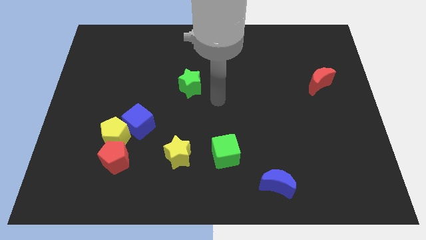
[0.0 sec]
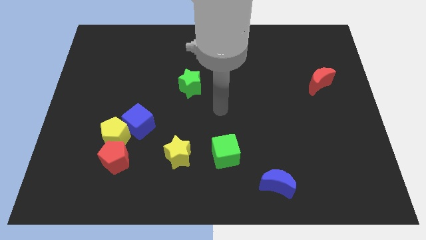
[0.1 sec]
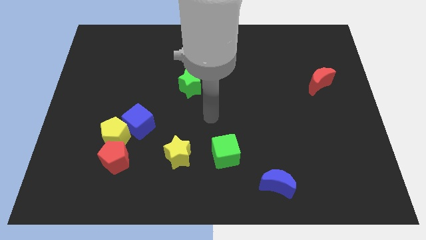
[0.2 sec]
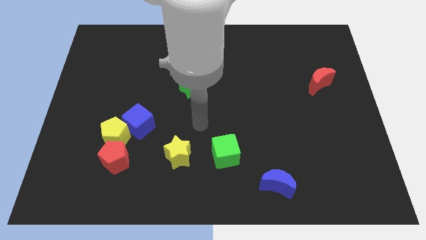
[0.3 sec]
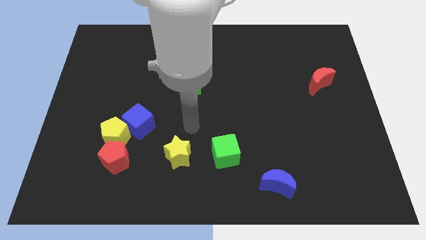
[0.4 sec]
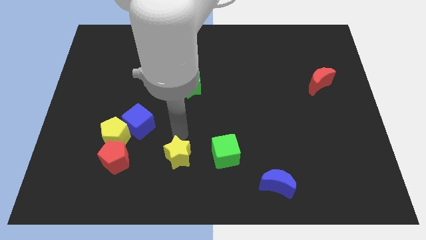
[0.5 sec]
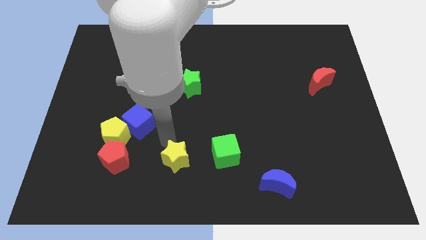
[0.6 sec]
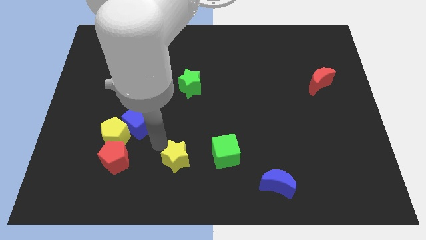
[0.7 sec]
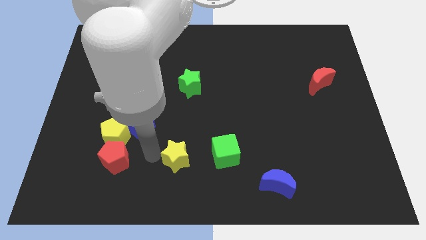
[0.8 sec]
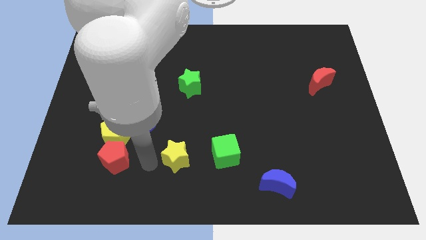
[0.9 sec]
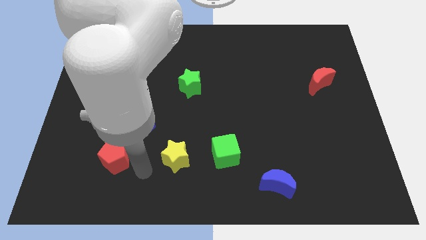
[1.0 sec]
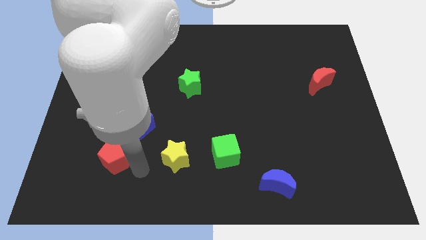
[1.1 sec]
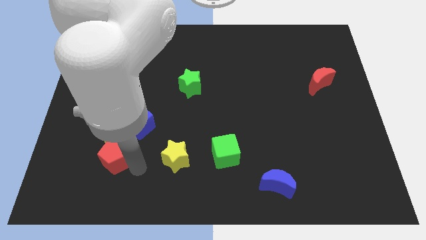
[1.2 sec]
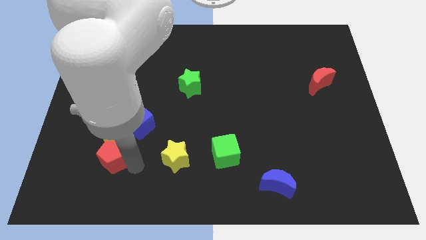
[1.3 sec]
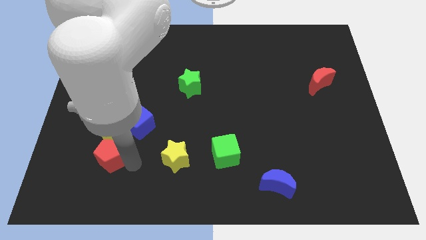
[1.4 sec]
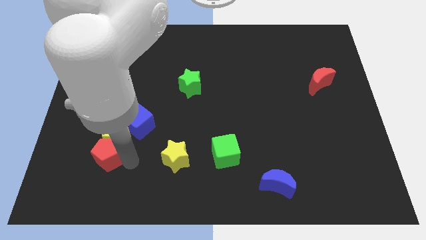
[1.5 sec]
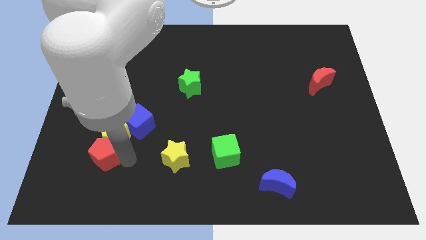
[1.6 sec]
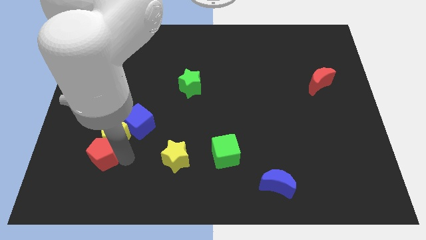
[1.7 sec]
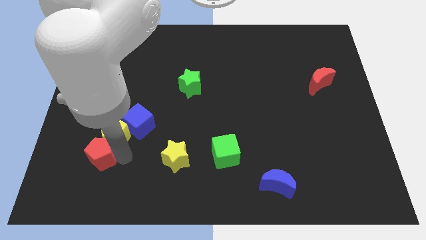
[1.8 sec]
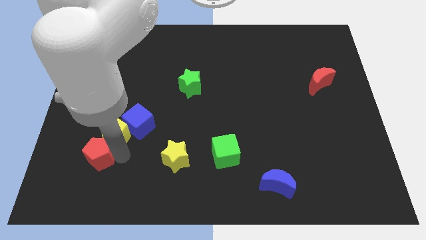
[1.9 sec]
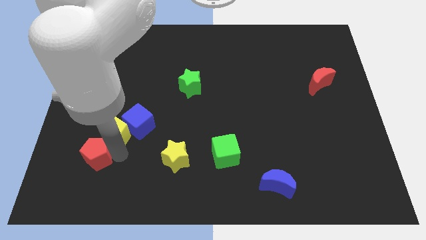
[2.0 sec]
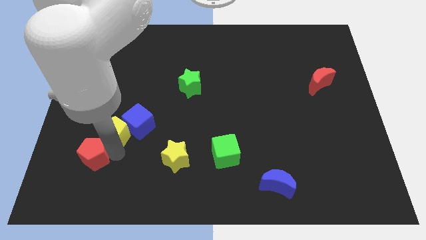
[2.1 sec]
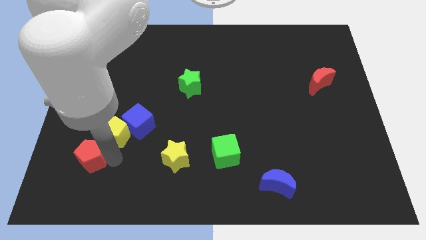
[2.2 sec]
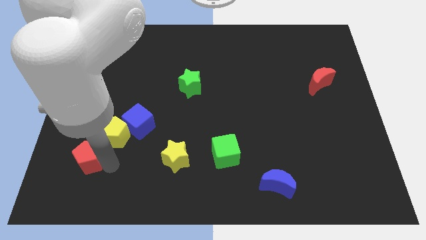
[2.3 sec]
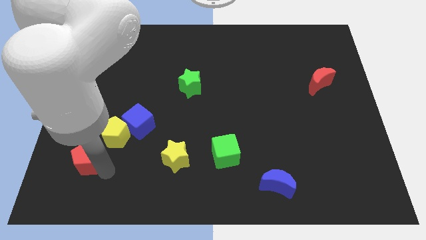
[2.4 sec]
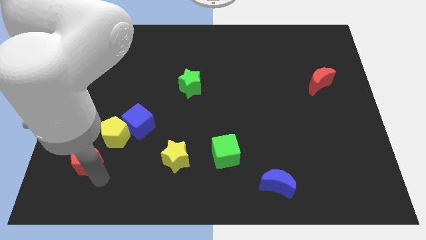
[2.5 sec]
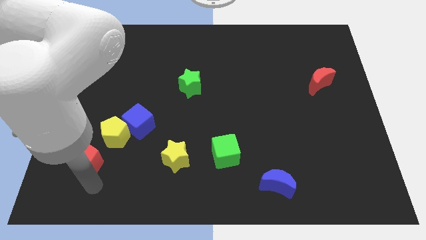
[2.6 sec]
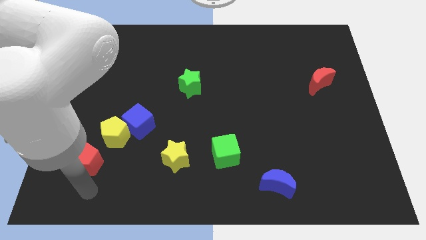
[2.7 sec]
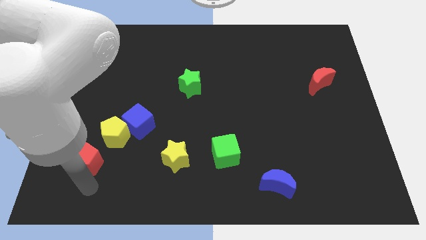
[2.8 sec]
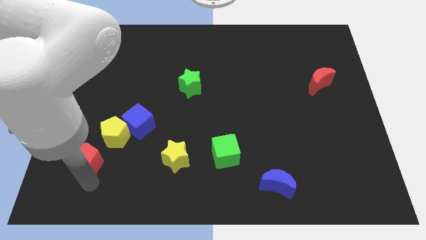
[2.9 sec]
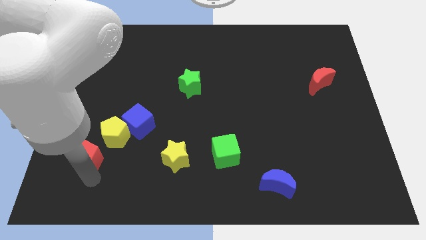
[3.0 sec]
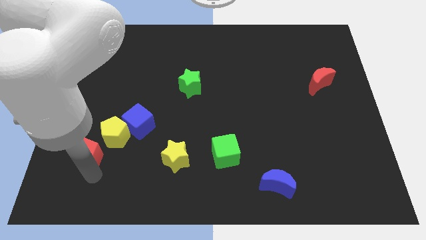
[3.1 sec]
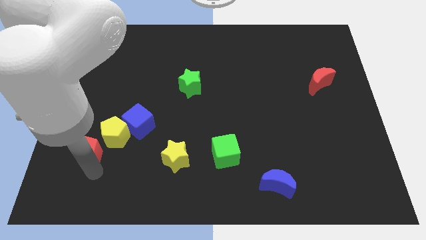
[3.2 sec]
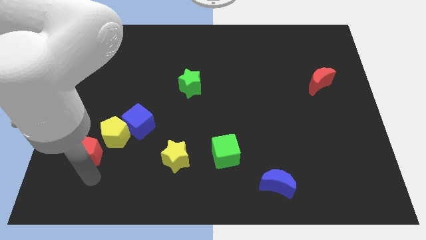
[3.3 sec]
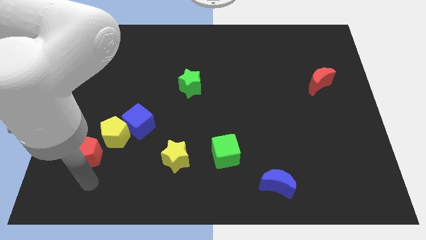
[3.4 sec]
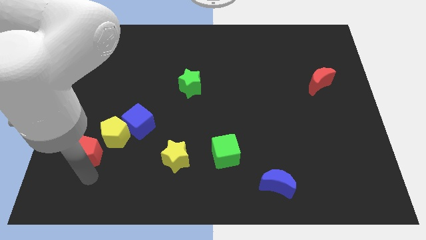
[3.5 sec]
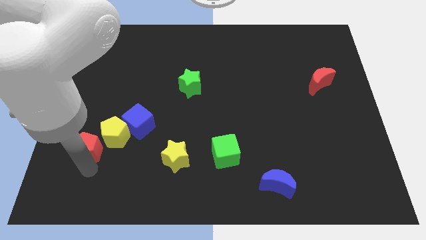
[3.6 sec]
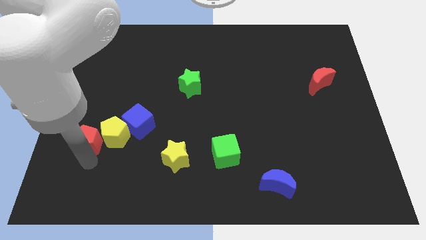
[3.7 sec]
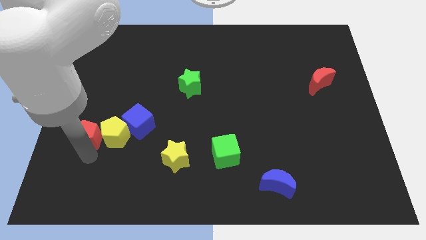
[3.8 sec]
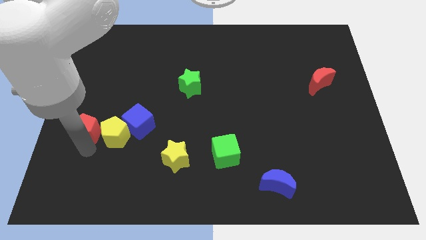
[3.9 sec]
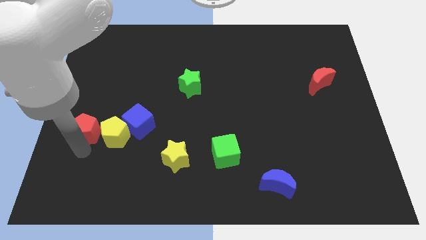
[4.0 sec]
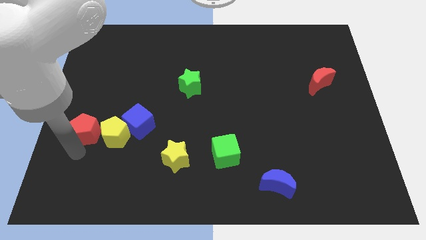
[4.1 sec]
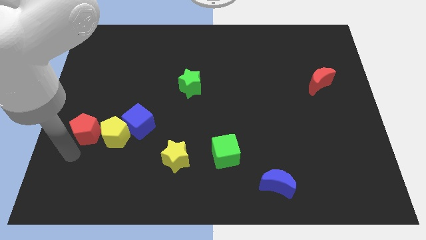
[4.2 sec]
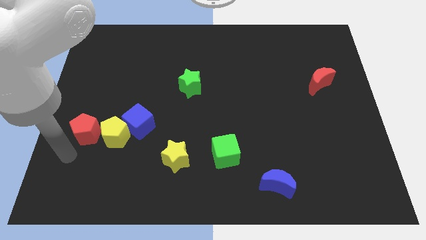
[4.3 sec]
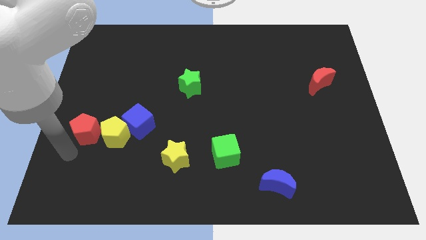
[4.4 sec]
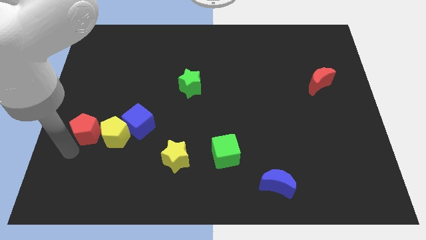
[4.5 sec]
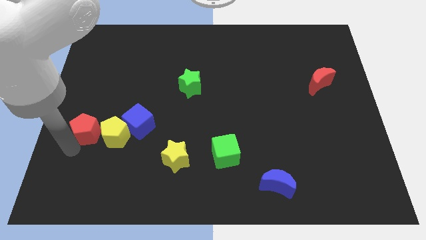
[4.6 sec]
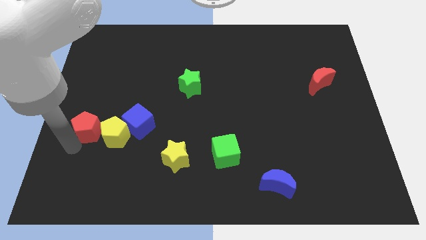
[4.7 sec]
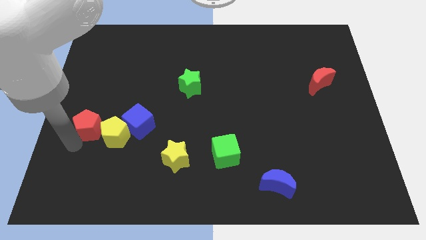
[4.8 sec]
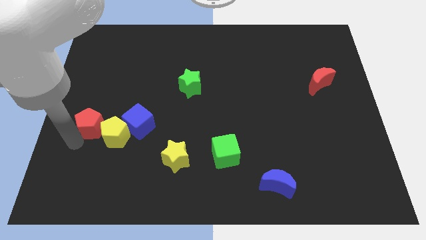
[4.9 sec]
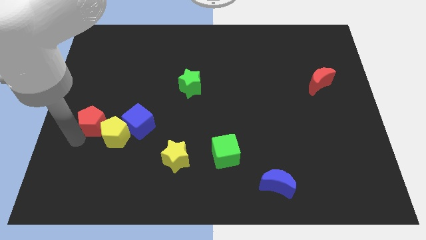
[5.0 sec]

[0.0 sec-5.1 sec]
slightly slide the red pentagon up

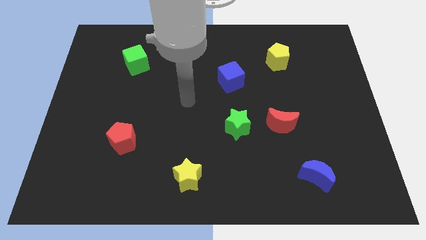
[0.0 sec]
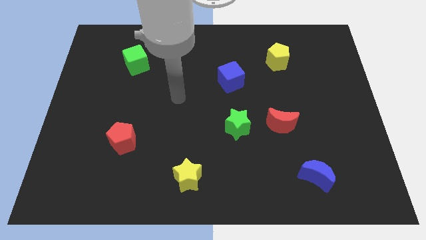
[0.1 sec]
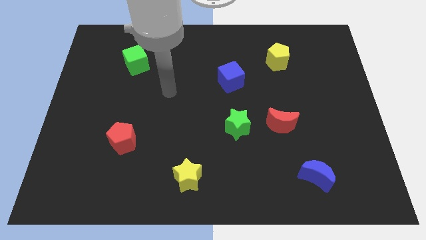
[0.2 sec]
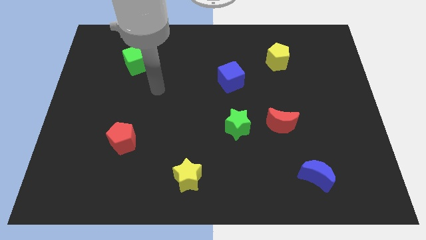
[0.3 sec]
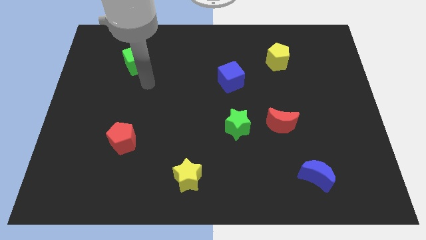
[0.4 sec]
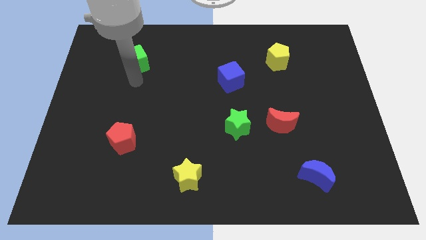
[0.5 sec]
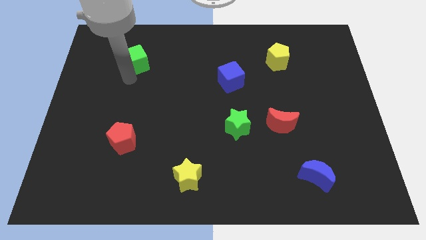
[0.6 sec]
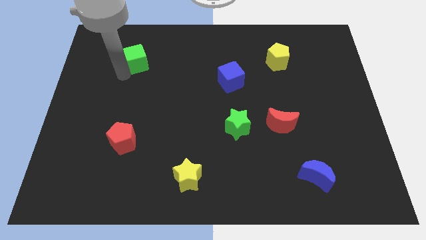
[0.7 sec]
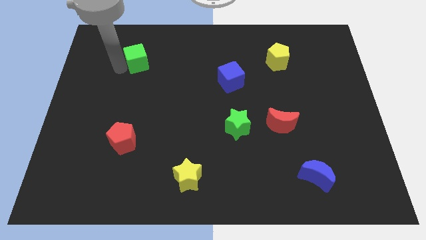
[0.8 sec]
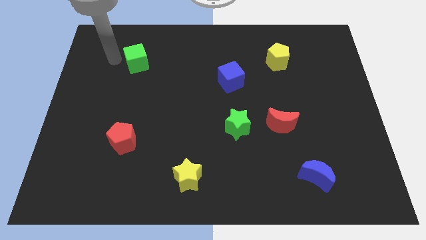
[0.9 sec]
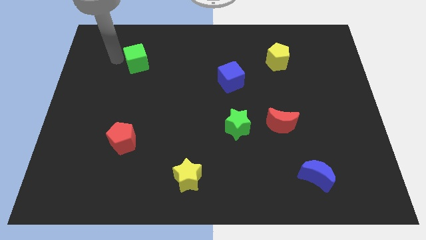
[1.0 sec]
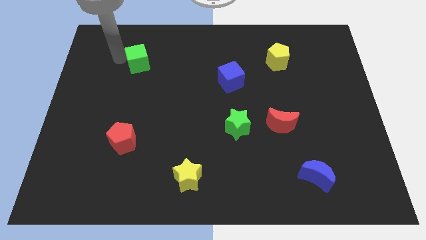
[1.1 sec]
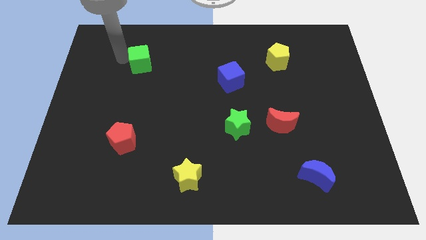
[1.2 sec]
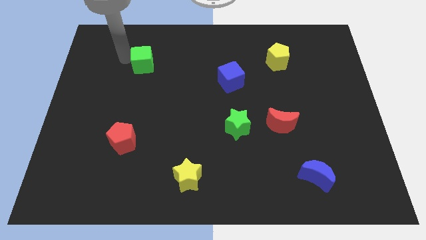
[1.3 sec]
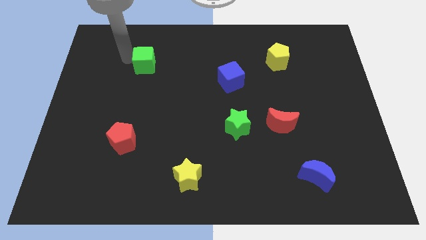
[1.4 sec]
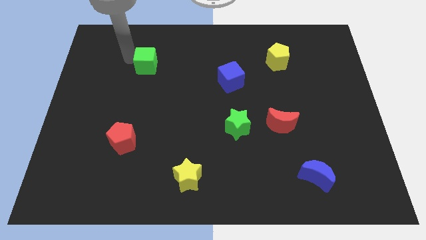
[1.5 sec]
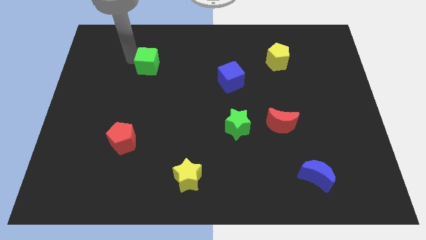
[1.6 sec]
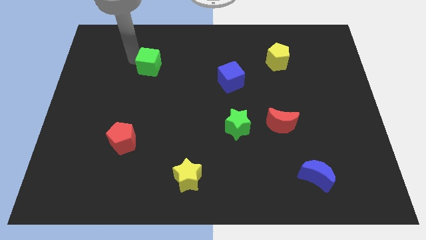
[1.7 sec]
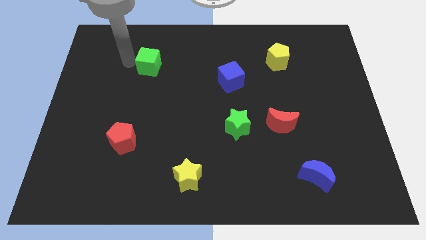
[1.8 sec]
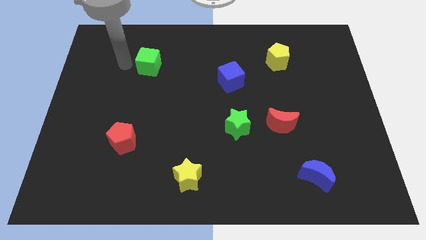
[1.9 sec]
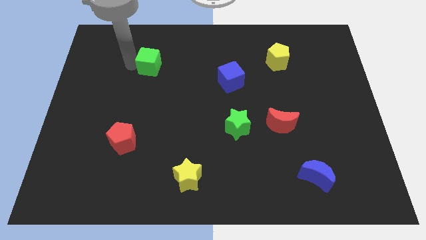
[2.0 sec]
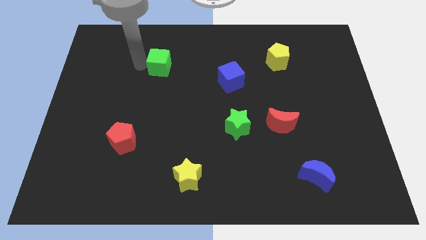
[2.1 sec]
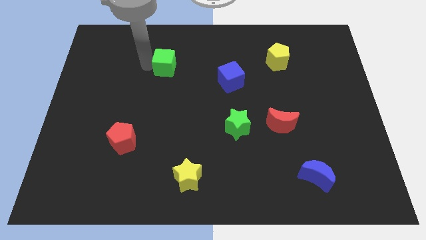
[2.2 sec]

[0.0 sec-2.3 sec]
move the green cube to the right slightly

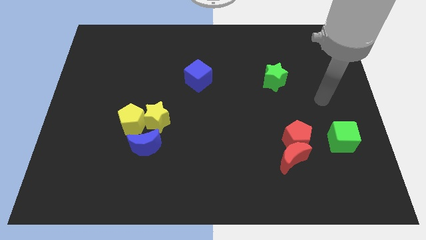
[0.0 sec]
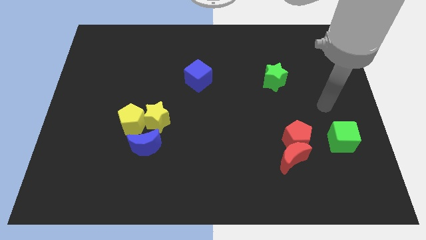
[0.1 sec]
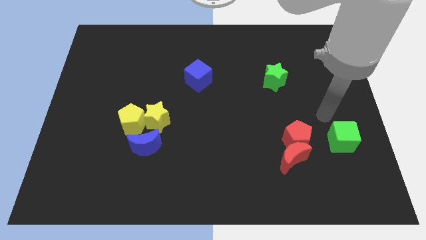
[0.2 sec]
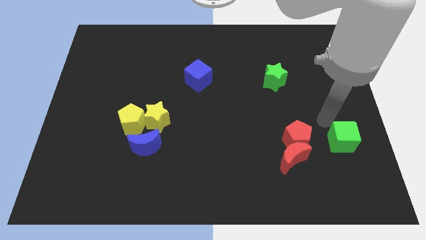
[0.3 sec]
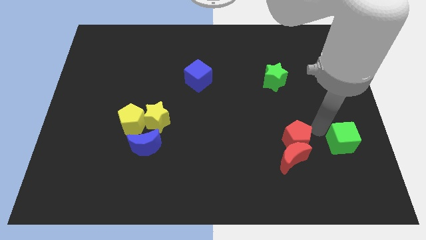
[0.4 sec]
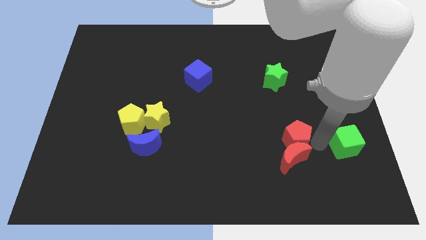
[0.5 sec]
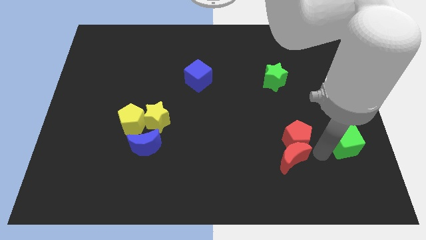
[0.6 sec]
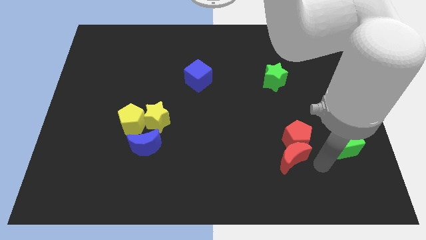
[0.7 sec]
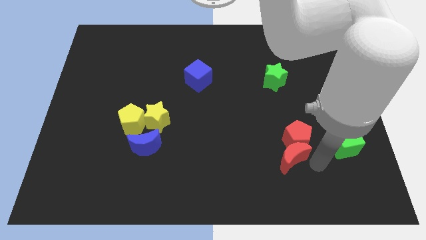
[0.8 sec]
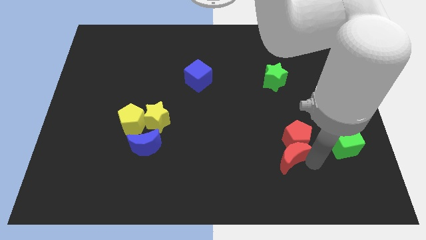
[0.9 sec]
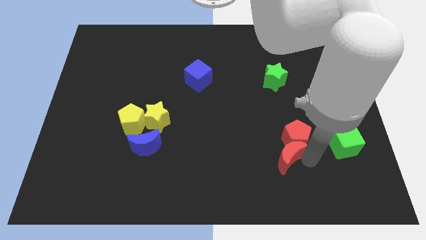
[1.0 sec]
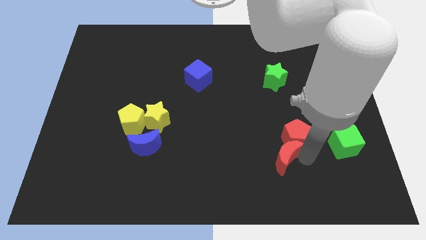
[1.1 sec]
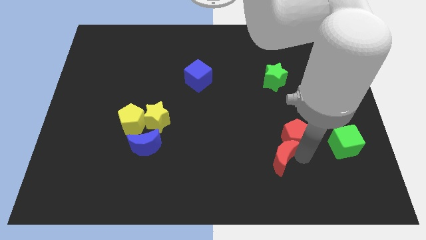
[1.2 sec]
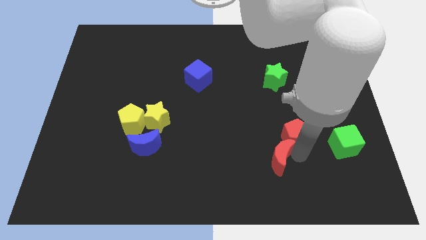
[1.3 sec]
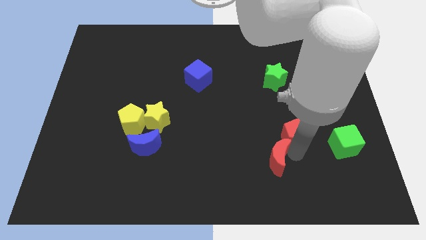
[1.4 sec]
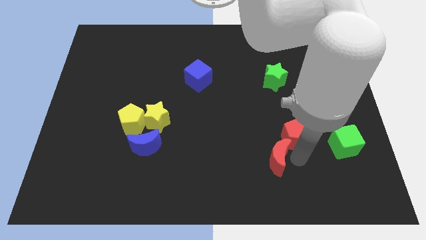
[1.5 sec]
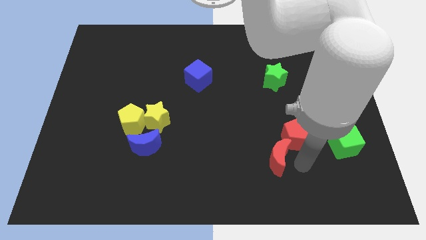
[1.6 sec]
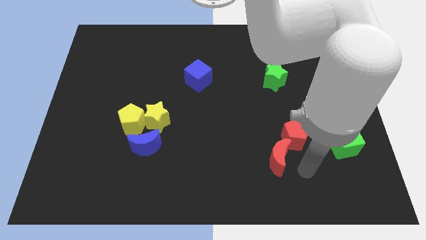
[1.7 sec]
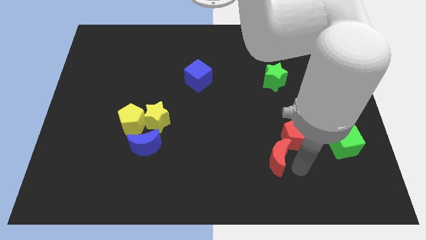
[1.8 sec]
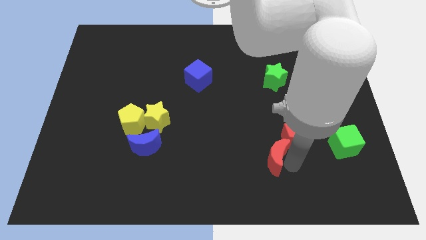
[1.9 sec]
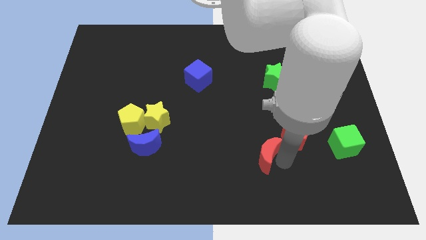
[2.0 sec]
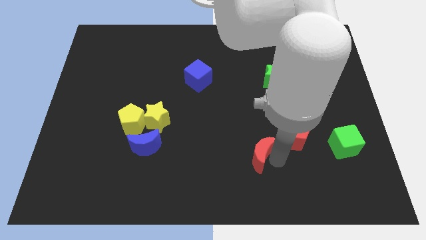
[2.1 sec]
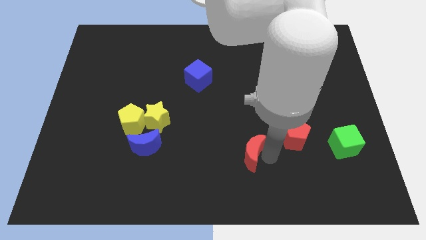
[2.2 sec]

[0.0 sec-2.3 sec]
slightly push the red moon to the left
